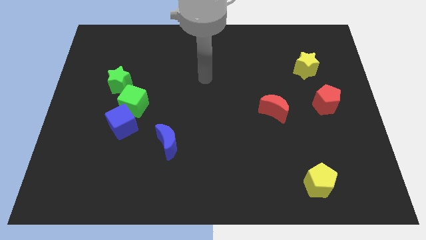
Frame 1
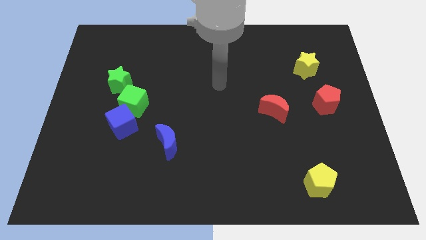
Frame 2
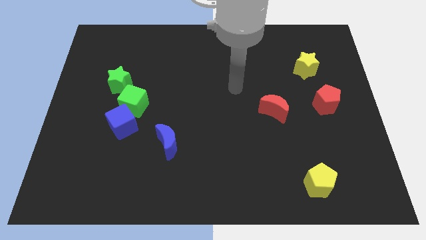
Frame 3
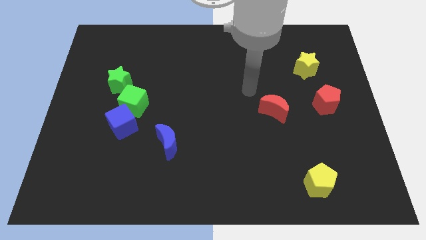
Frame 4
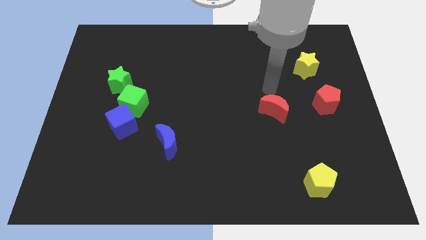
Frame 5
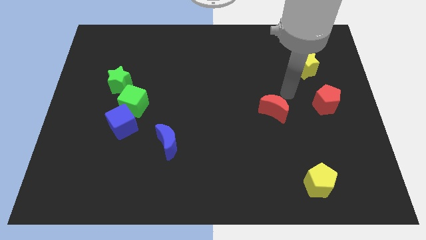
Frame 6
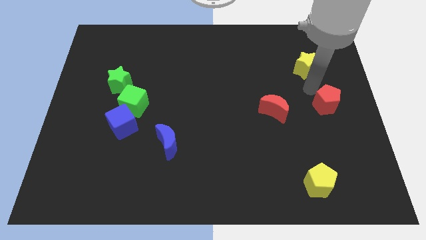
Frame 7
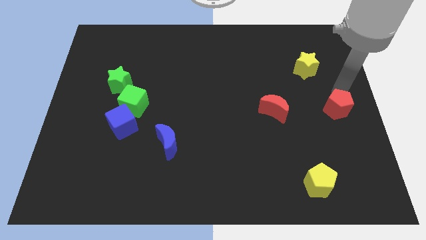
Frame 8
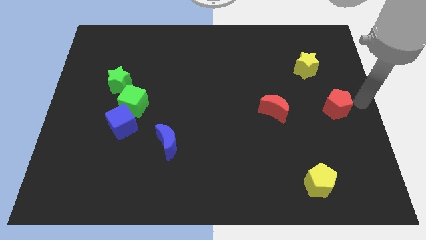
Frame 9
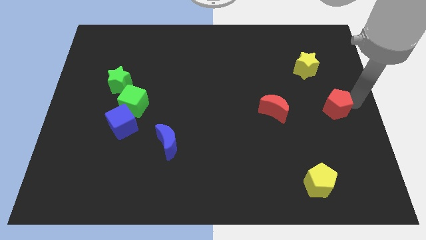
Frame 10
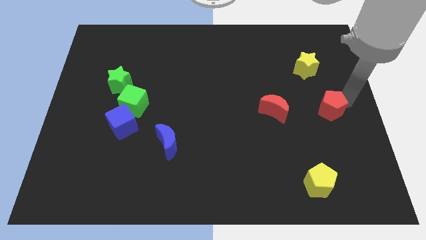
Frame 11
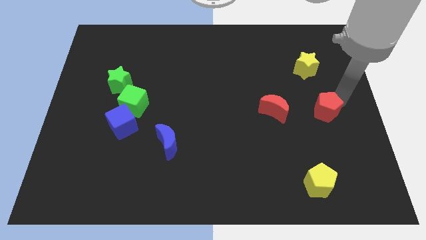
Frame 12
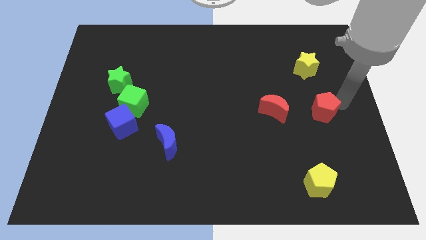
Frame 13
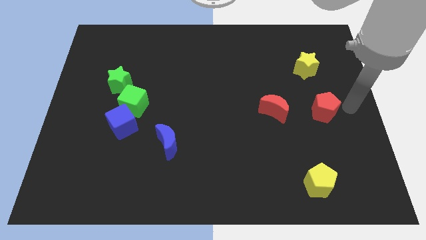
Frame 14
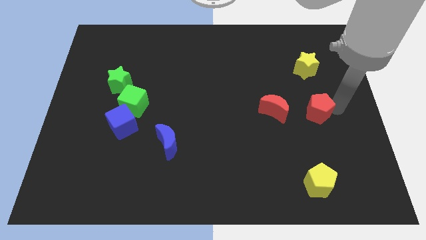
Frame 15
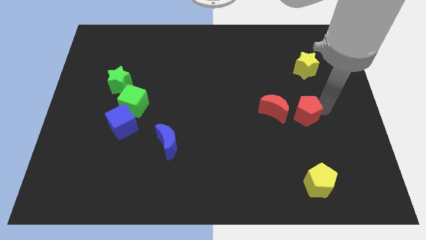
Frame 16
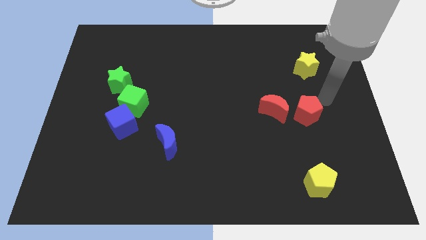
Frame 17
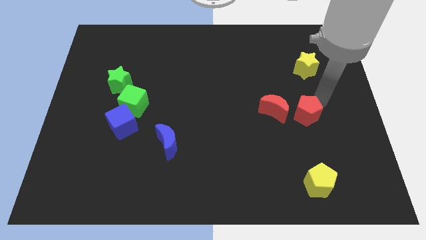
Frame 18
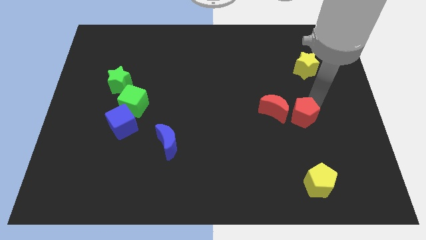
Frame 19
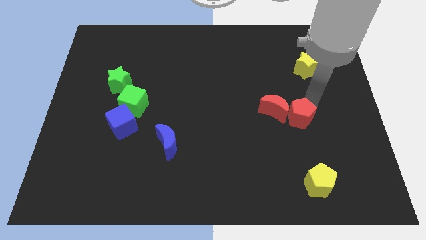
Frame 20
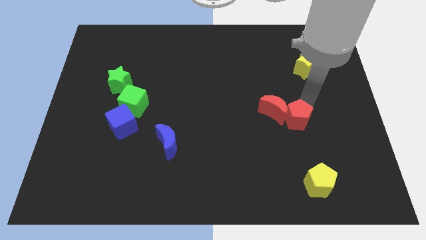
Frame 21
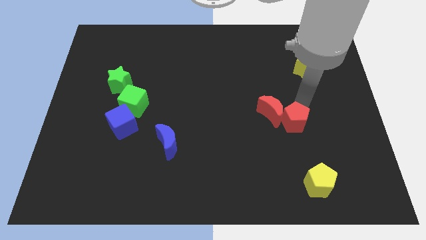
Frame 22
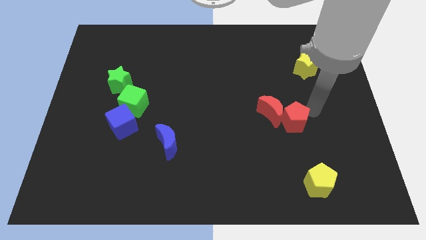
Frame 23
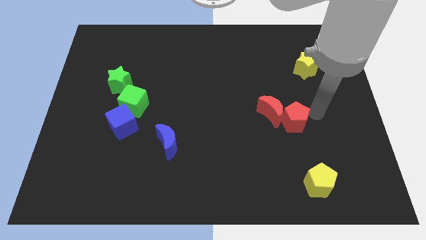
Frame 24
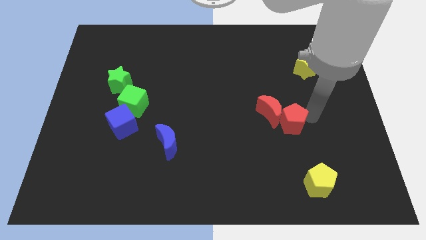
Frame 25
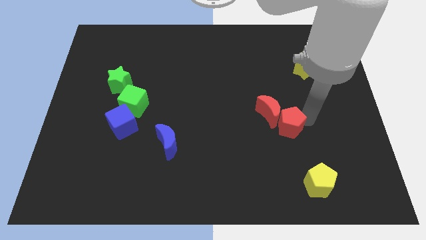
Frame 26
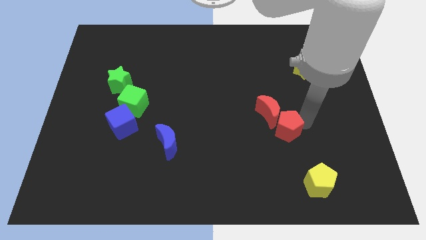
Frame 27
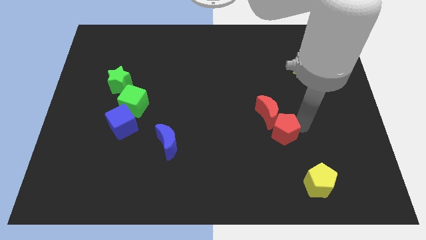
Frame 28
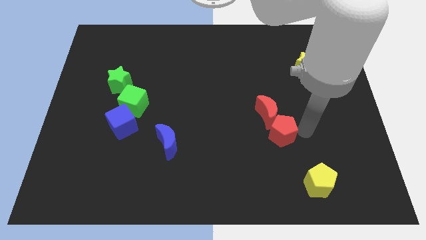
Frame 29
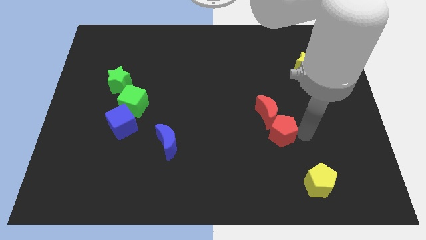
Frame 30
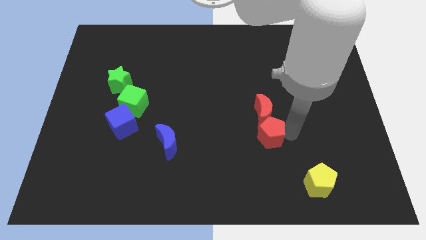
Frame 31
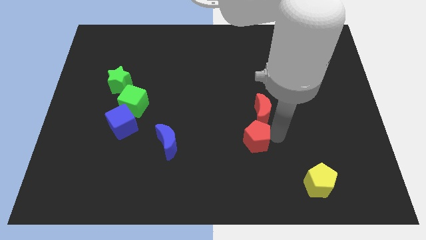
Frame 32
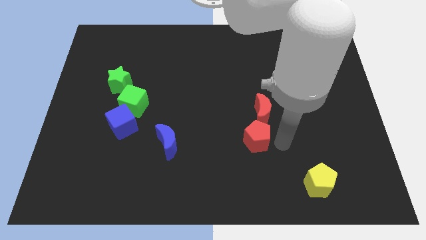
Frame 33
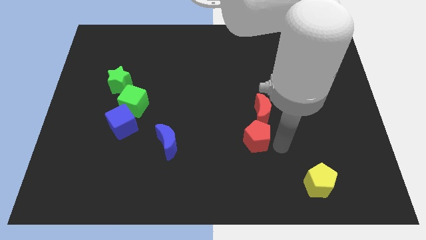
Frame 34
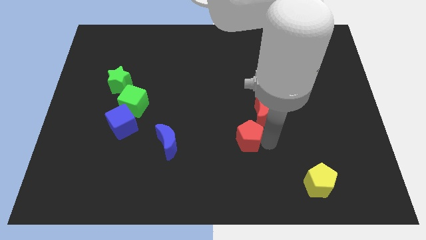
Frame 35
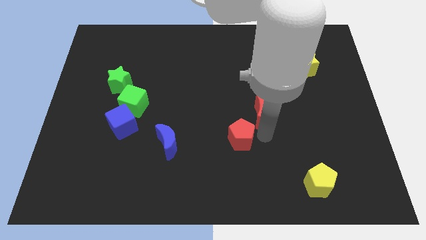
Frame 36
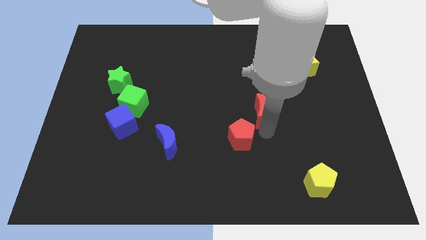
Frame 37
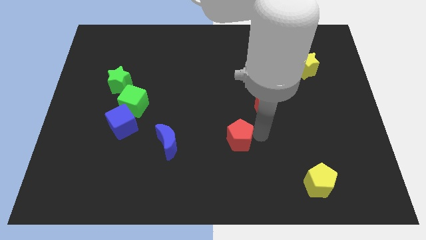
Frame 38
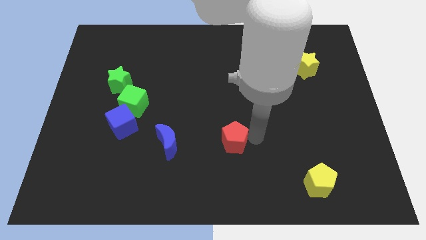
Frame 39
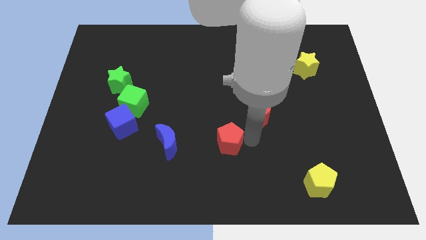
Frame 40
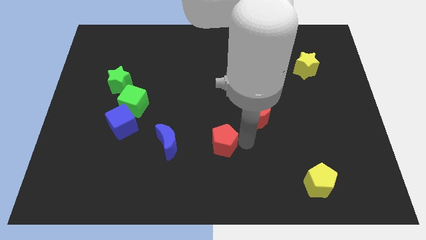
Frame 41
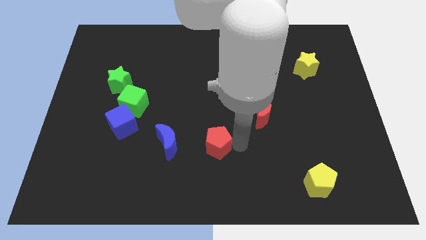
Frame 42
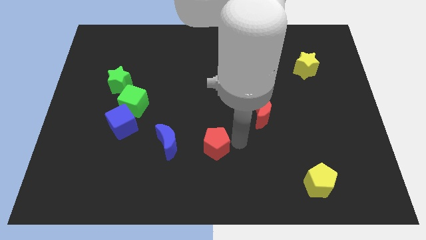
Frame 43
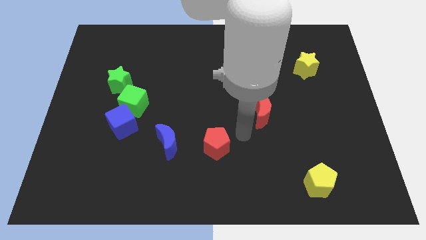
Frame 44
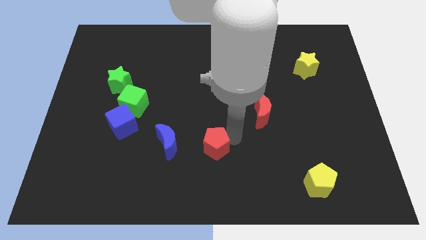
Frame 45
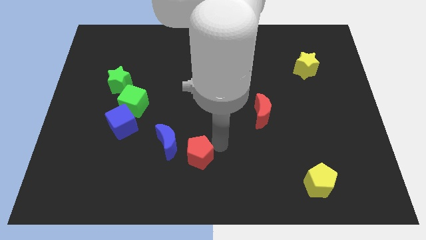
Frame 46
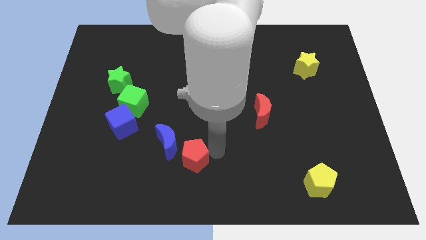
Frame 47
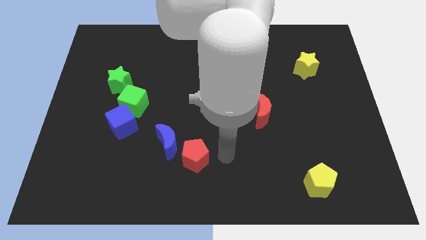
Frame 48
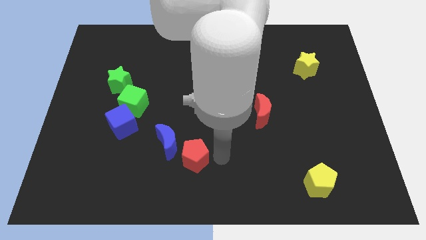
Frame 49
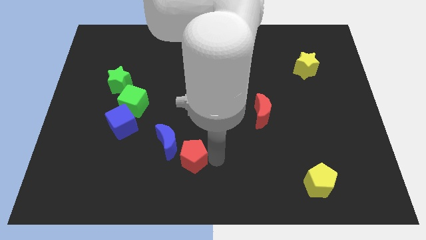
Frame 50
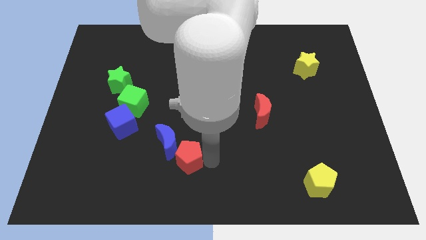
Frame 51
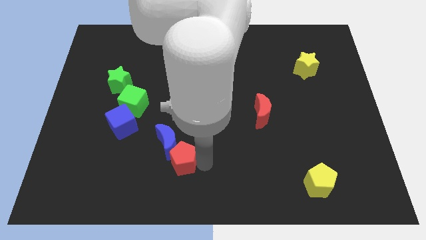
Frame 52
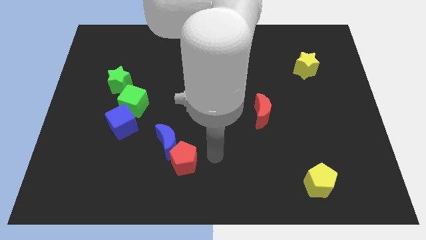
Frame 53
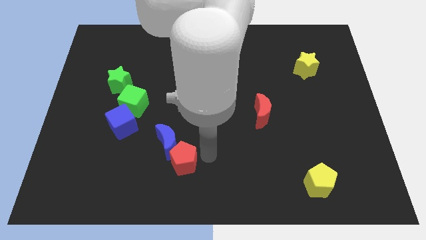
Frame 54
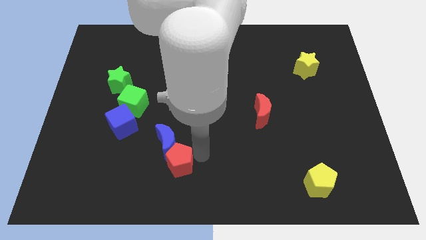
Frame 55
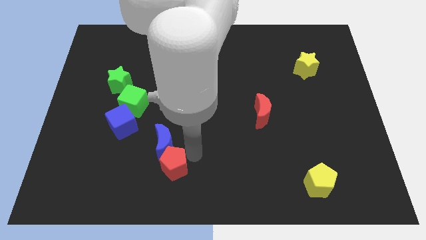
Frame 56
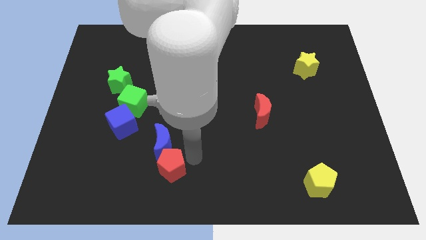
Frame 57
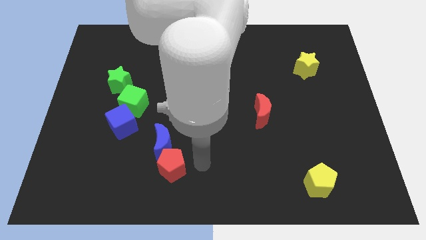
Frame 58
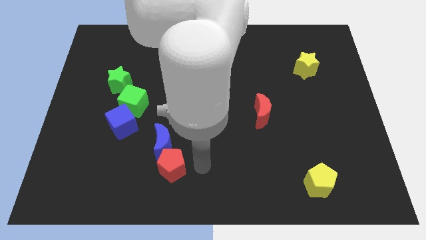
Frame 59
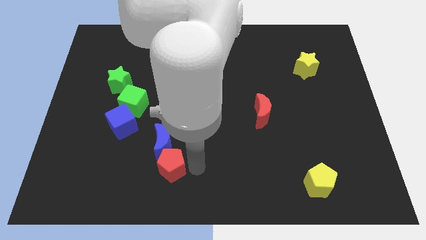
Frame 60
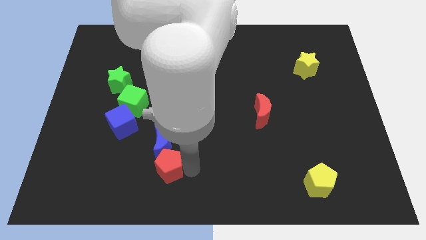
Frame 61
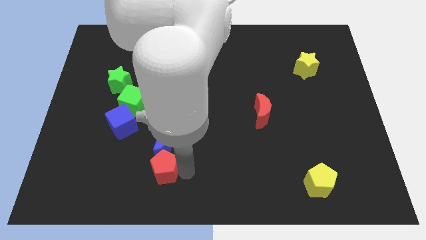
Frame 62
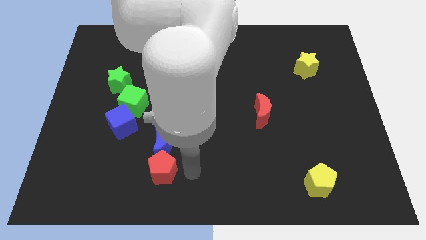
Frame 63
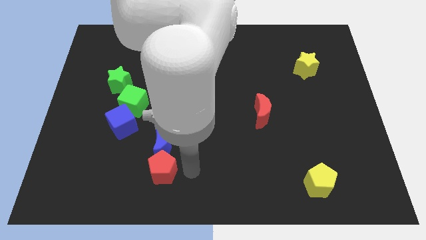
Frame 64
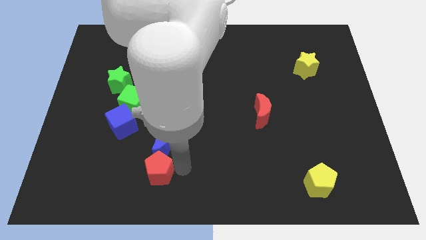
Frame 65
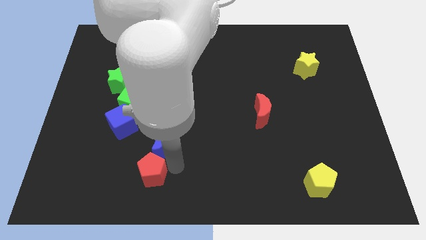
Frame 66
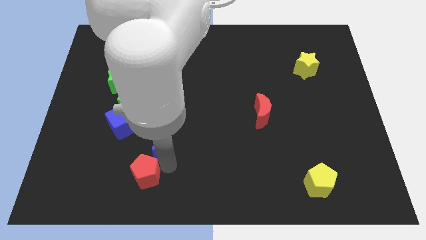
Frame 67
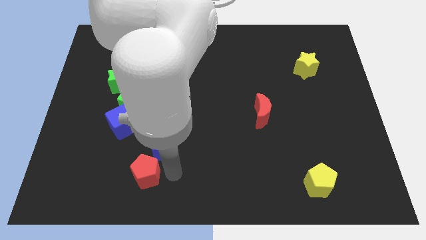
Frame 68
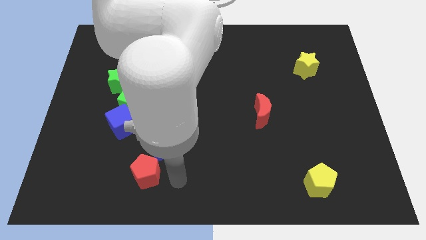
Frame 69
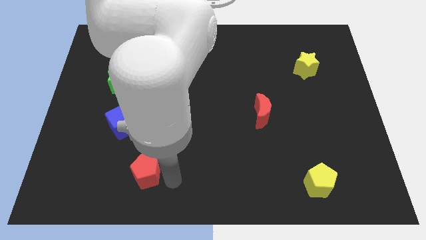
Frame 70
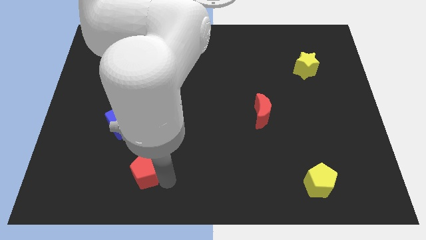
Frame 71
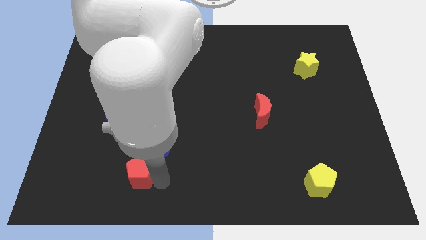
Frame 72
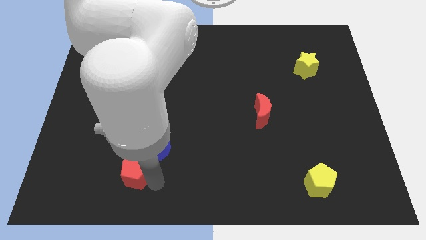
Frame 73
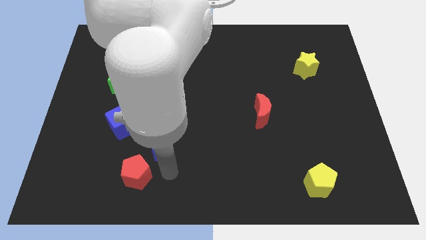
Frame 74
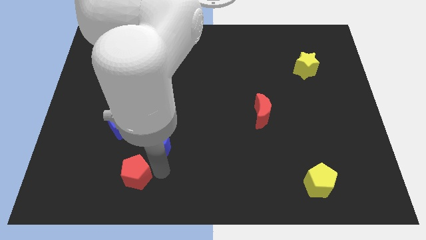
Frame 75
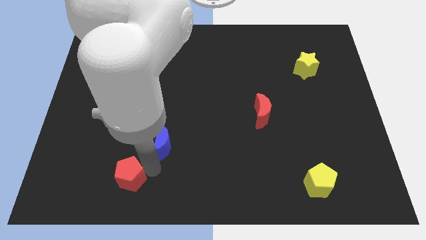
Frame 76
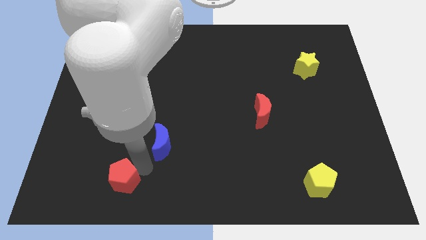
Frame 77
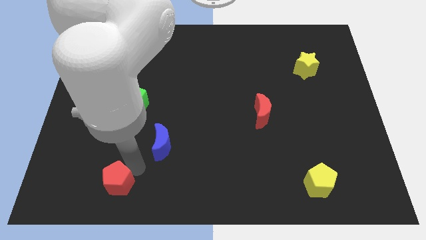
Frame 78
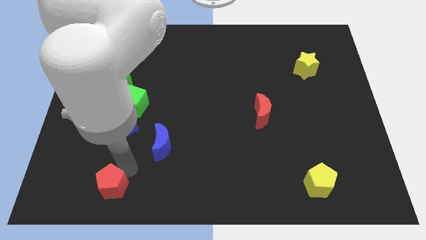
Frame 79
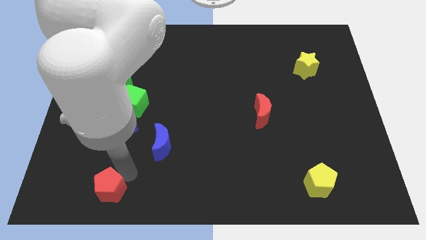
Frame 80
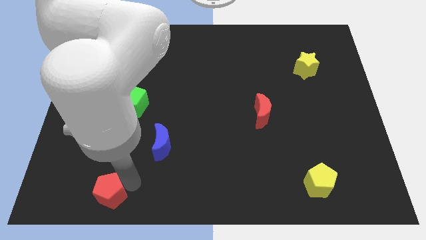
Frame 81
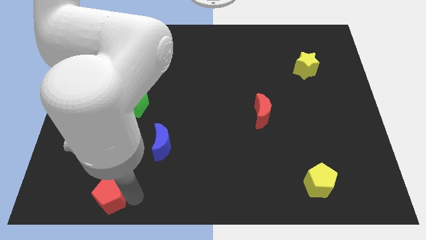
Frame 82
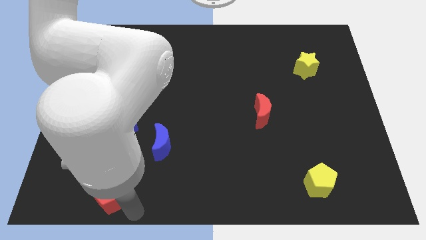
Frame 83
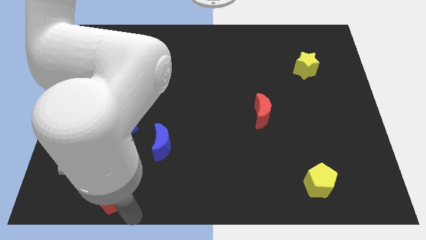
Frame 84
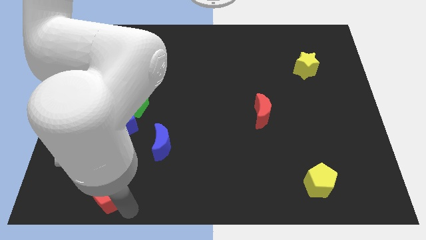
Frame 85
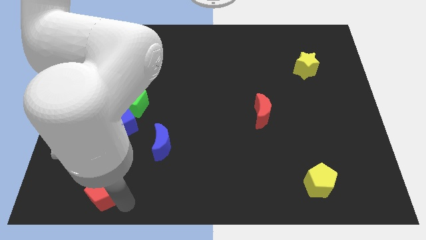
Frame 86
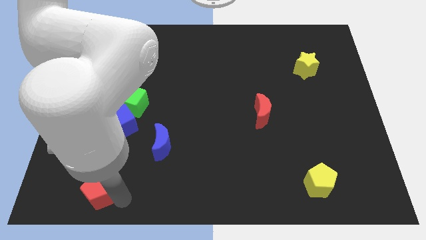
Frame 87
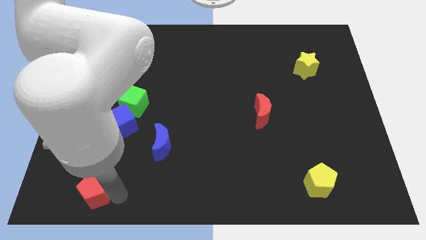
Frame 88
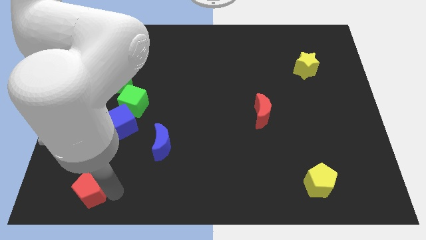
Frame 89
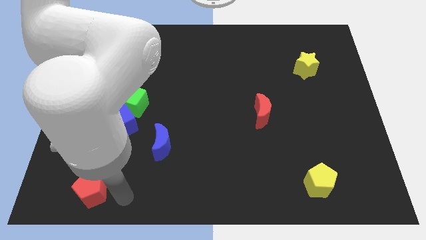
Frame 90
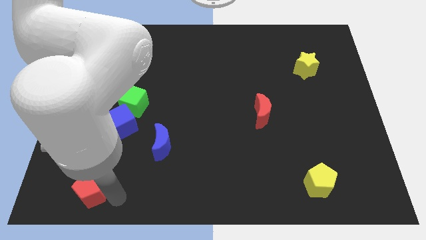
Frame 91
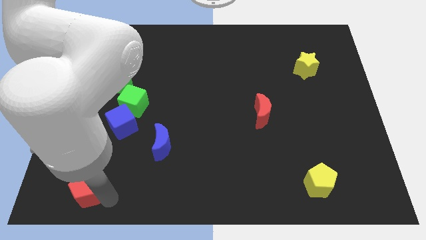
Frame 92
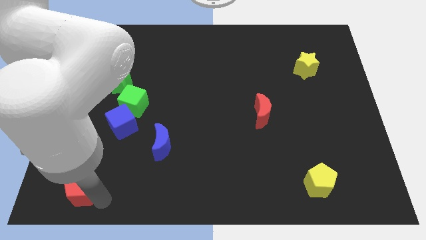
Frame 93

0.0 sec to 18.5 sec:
slide the red pentagon to the bottom left corner
